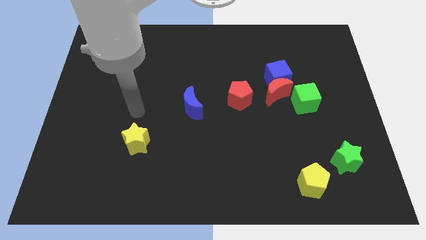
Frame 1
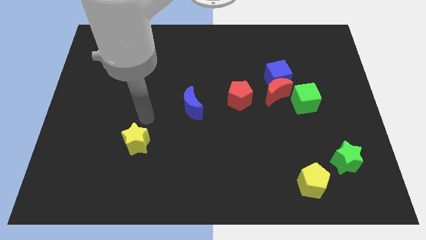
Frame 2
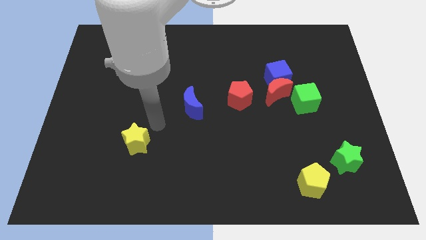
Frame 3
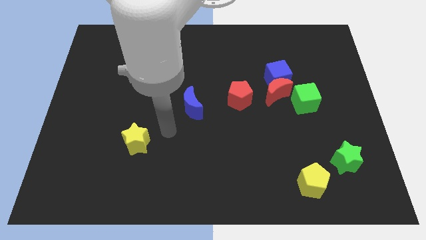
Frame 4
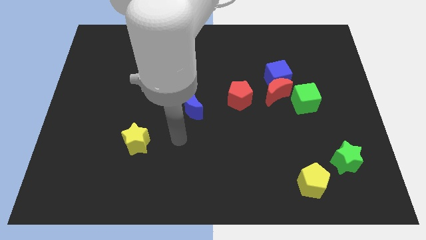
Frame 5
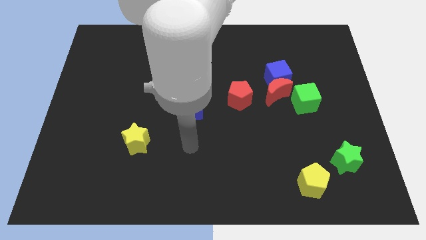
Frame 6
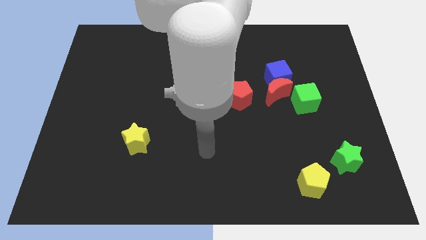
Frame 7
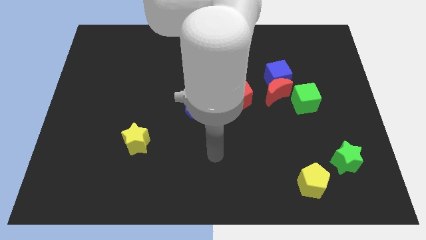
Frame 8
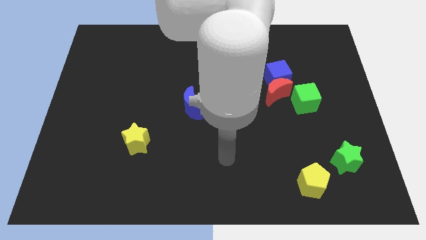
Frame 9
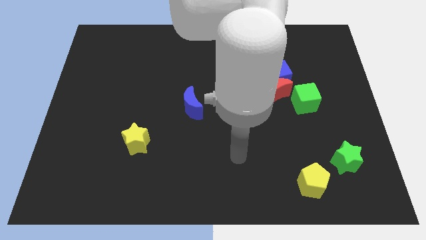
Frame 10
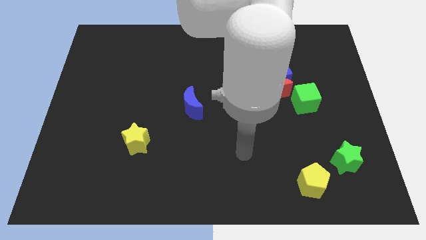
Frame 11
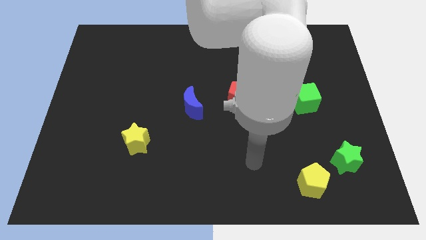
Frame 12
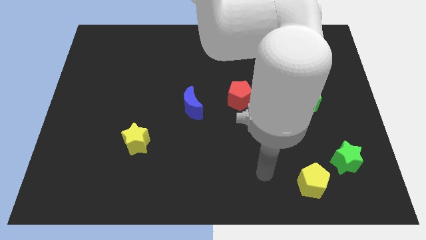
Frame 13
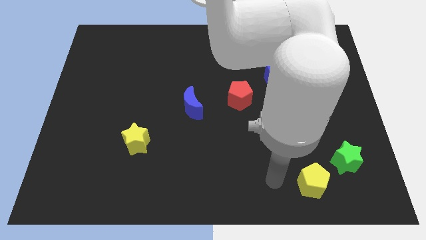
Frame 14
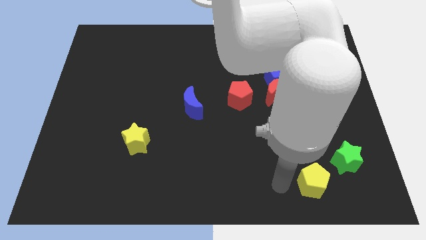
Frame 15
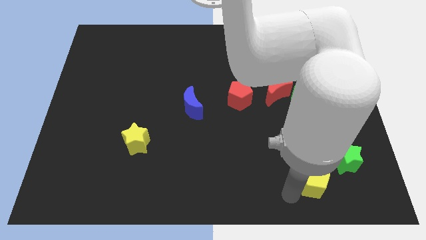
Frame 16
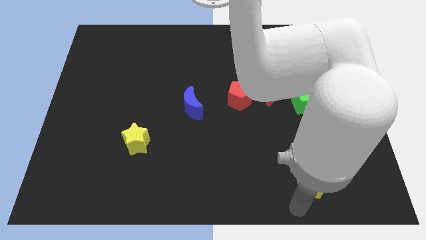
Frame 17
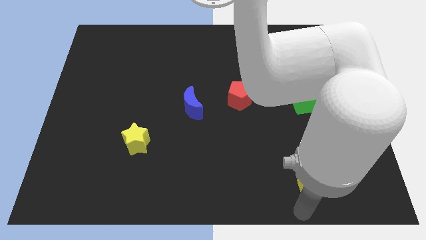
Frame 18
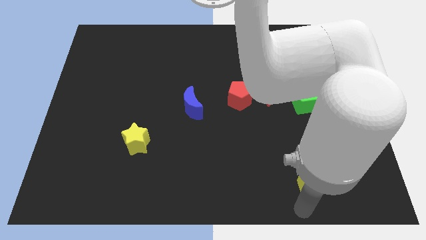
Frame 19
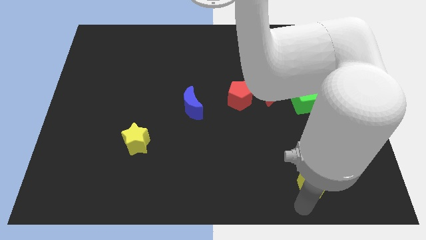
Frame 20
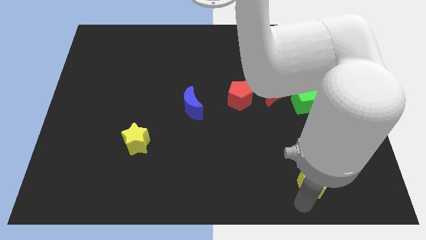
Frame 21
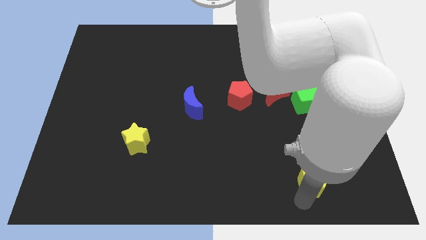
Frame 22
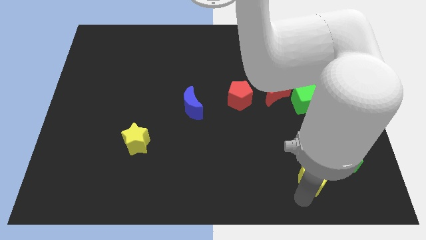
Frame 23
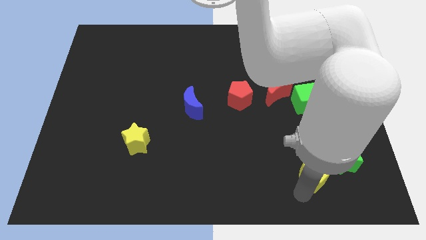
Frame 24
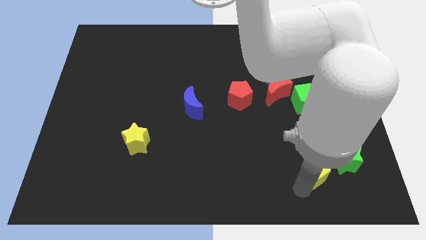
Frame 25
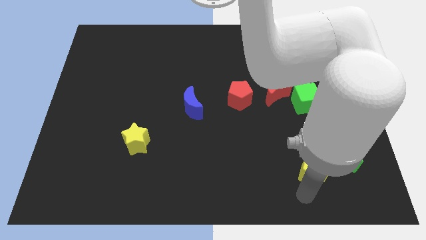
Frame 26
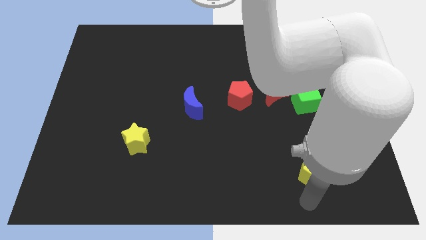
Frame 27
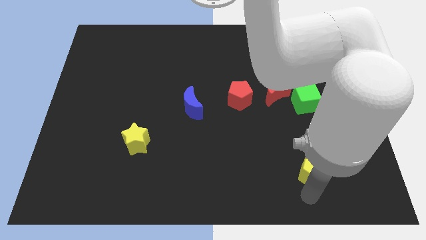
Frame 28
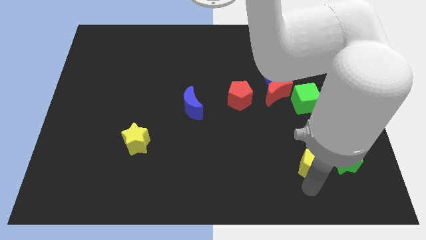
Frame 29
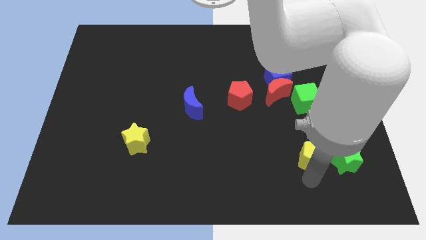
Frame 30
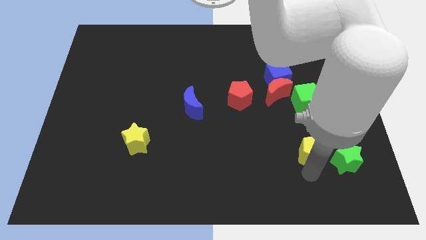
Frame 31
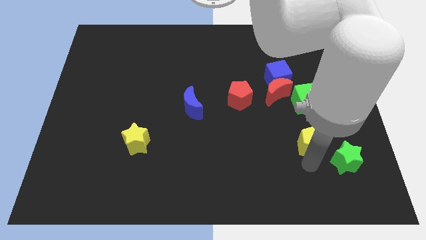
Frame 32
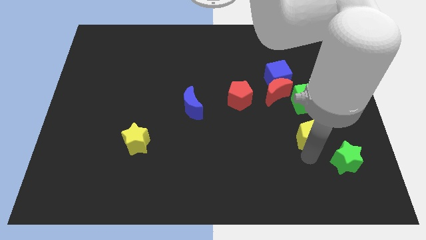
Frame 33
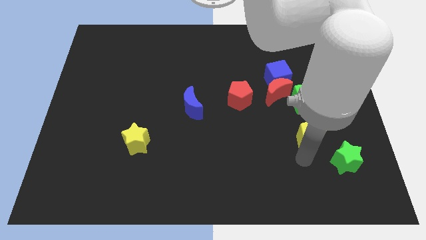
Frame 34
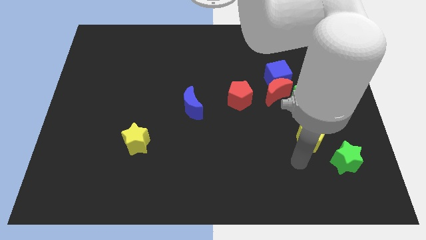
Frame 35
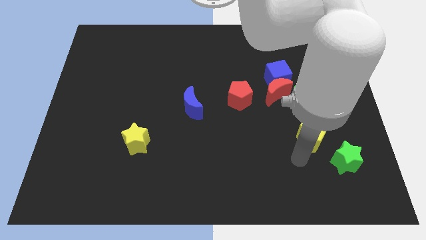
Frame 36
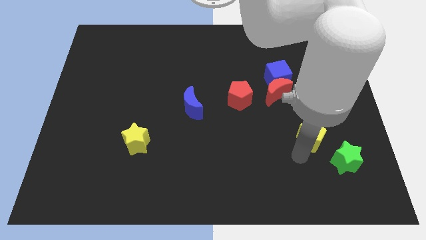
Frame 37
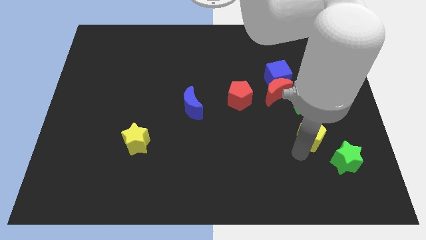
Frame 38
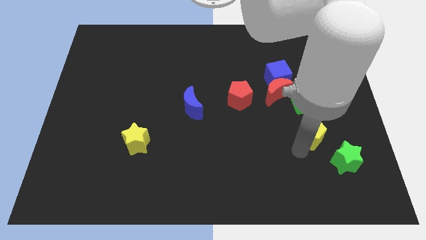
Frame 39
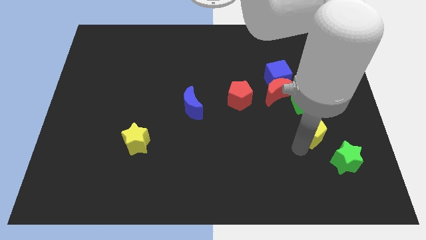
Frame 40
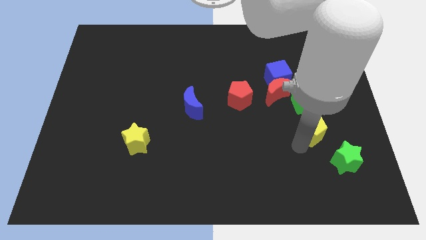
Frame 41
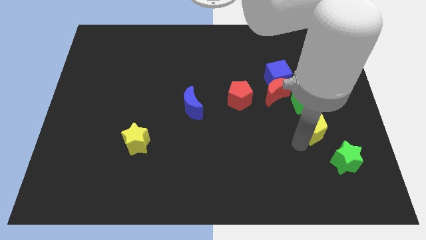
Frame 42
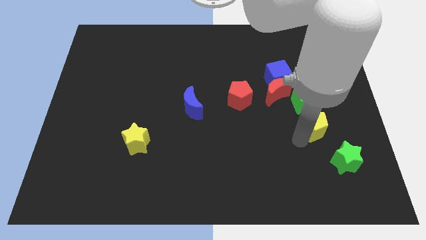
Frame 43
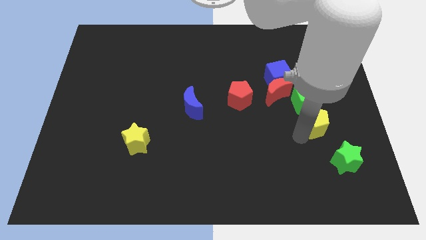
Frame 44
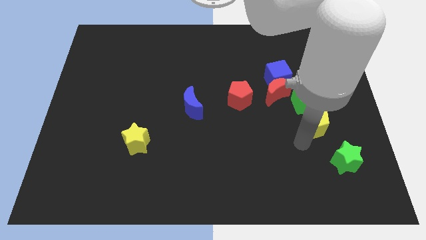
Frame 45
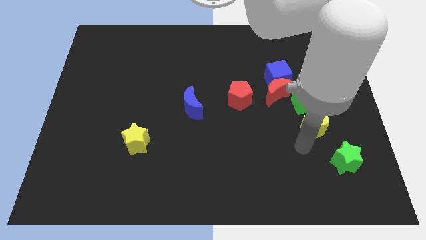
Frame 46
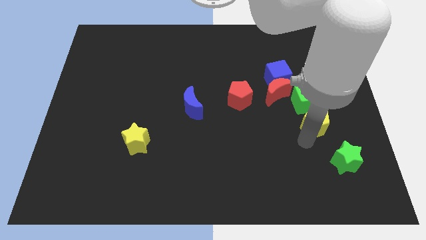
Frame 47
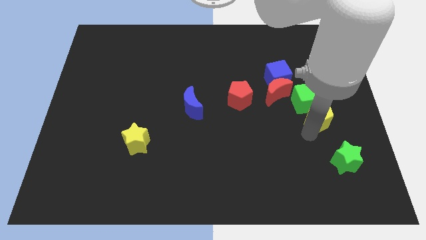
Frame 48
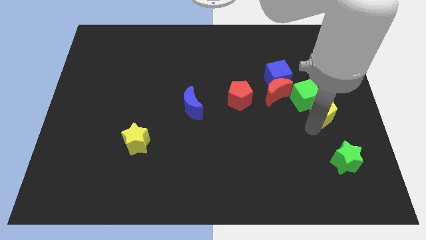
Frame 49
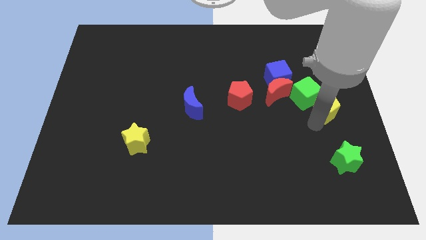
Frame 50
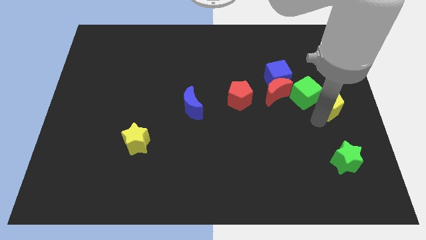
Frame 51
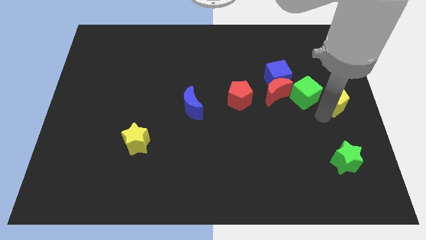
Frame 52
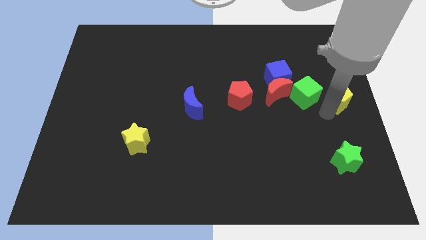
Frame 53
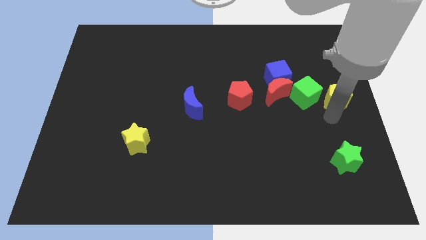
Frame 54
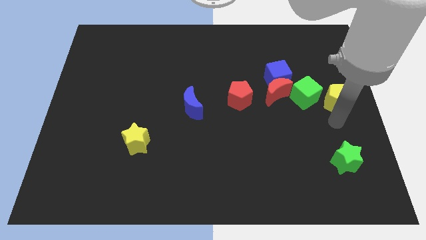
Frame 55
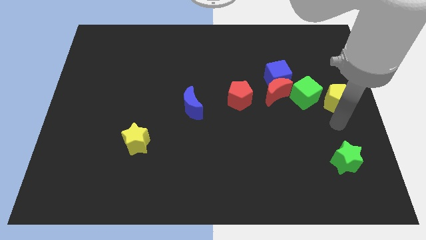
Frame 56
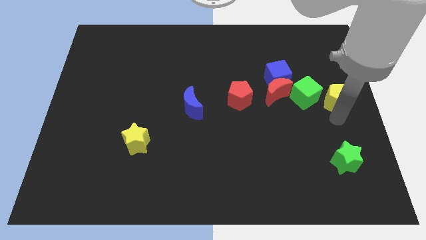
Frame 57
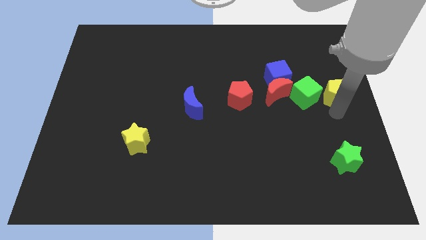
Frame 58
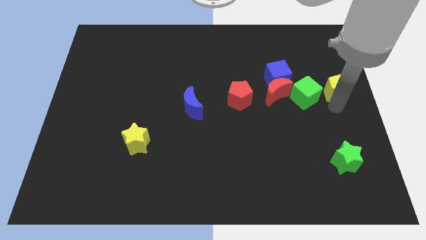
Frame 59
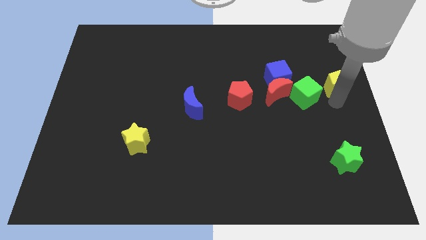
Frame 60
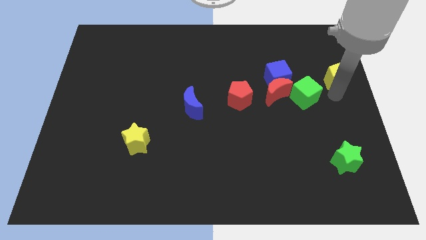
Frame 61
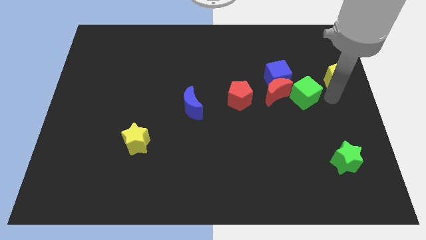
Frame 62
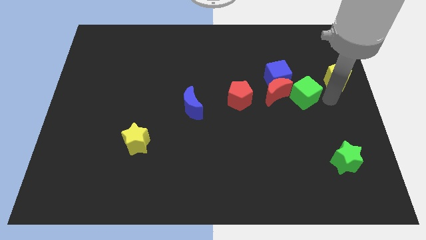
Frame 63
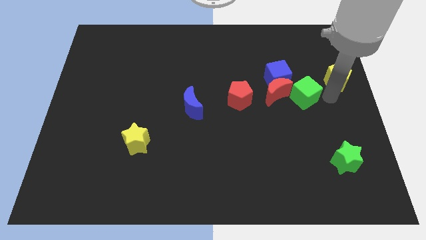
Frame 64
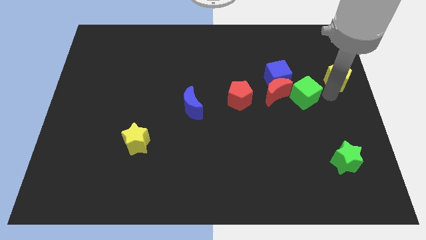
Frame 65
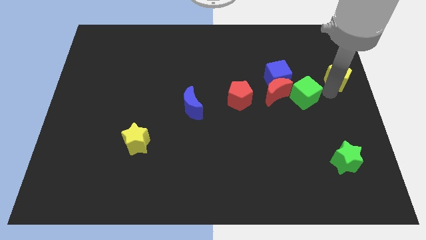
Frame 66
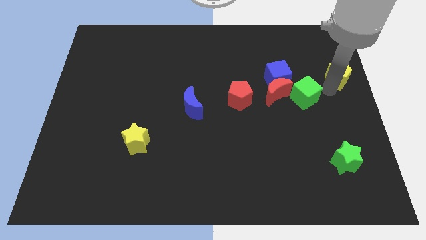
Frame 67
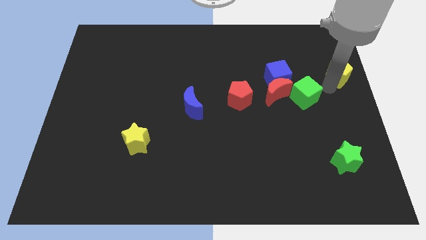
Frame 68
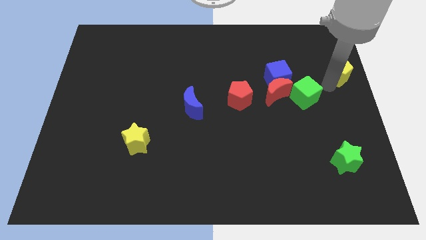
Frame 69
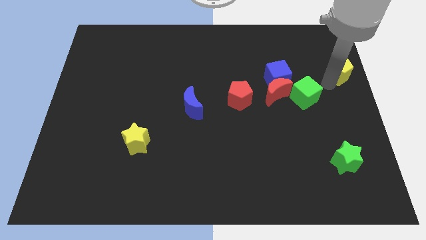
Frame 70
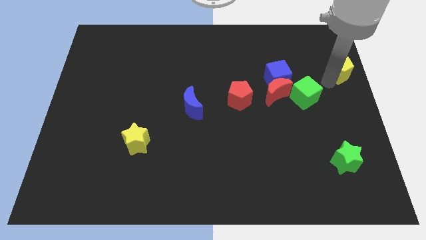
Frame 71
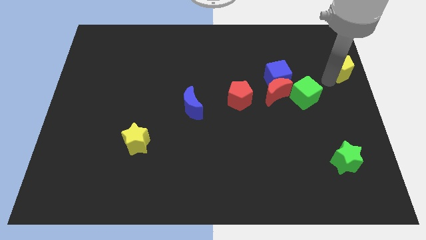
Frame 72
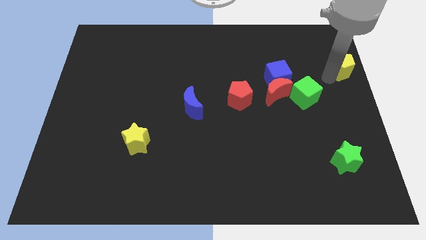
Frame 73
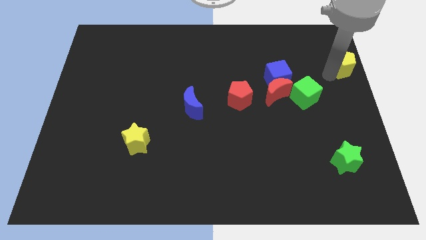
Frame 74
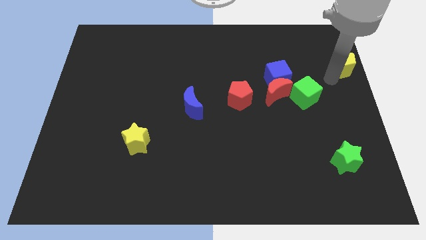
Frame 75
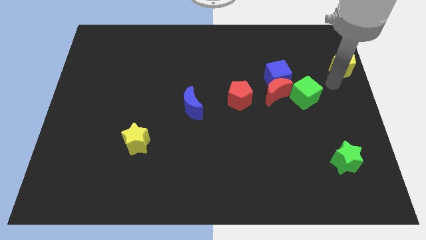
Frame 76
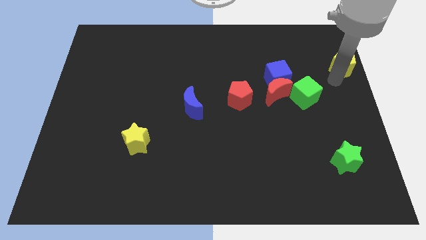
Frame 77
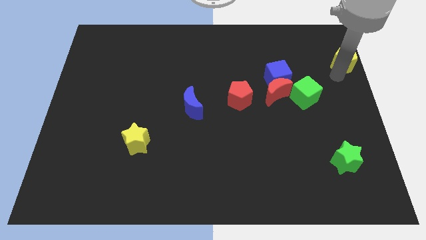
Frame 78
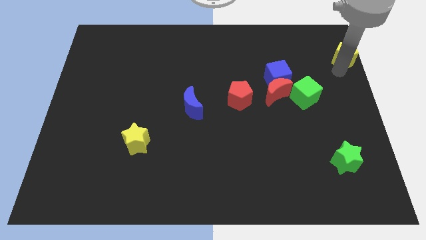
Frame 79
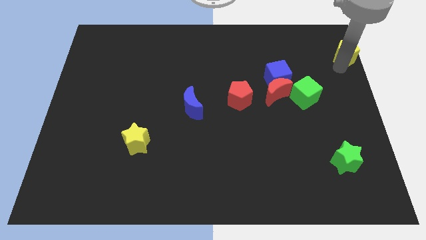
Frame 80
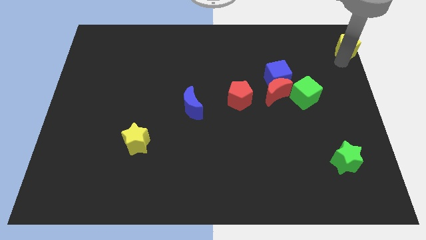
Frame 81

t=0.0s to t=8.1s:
move the yellow pentagon to the upper right corner
